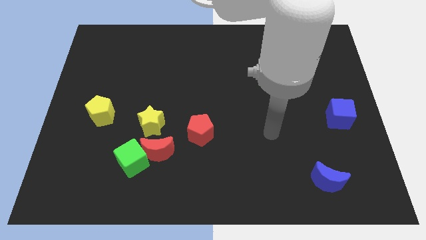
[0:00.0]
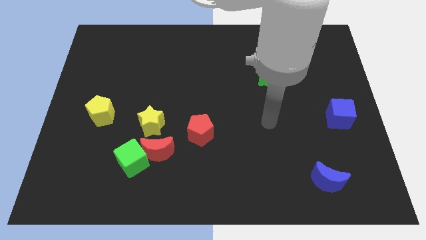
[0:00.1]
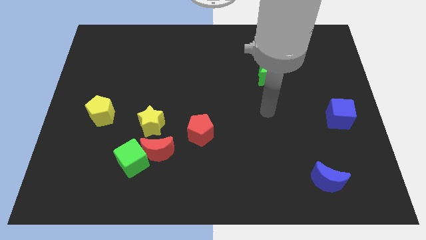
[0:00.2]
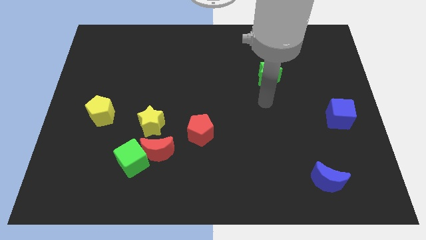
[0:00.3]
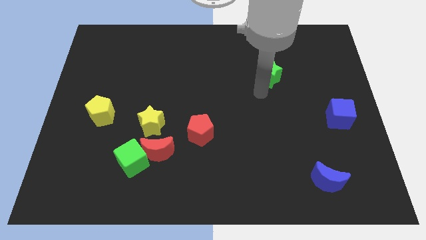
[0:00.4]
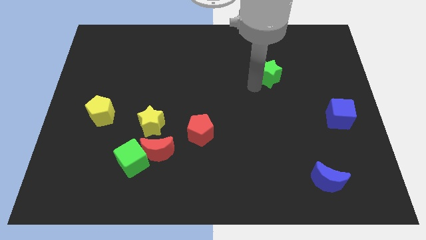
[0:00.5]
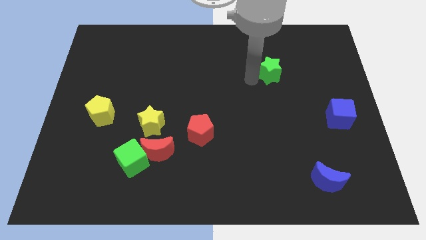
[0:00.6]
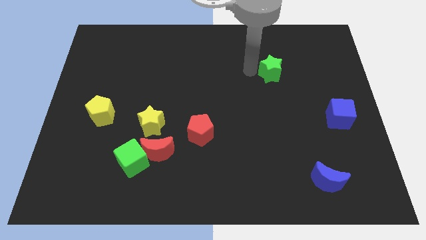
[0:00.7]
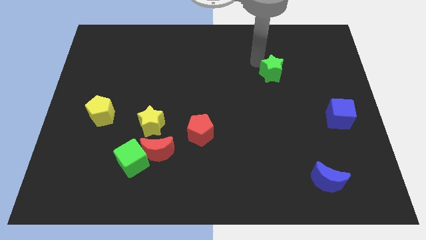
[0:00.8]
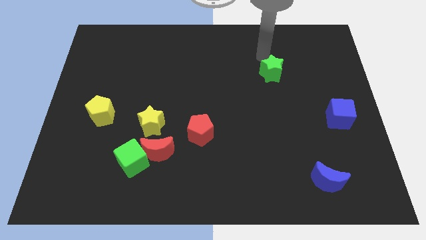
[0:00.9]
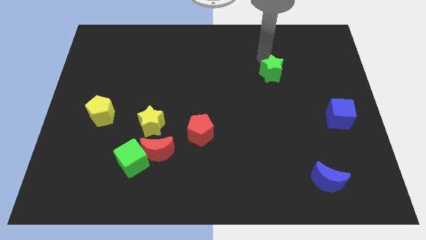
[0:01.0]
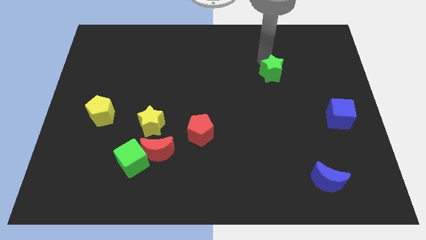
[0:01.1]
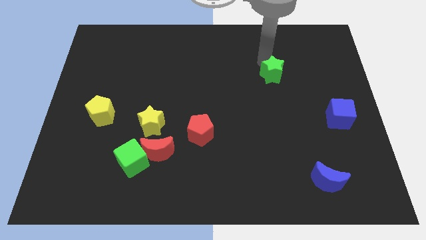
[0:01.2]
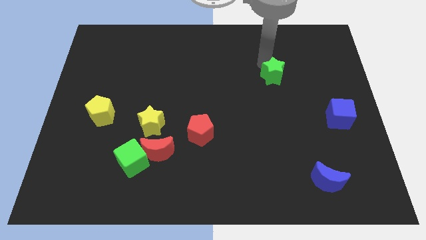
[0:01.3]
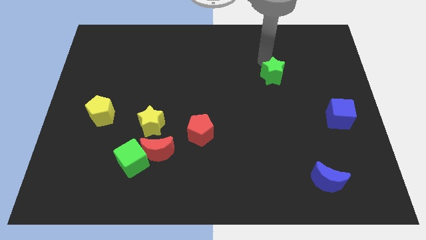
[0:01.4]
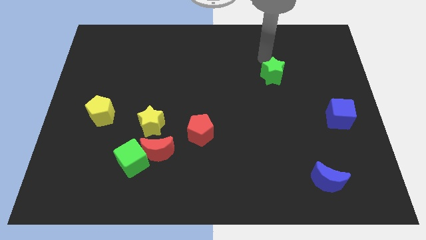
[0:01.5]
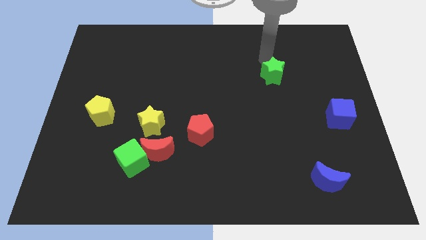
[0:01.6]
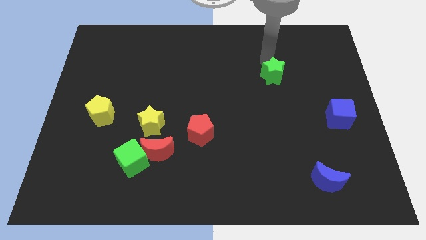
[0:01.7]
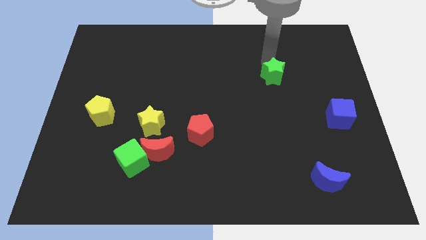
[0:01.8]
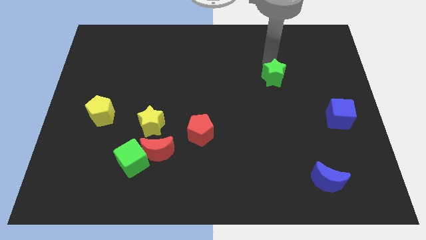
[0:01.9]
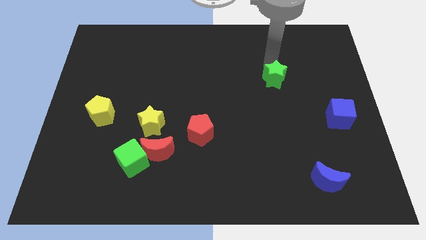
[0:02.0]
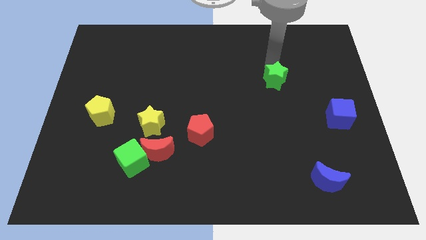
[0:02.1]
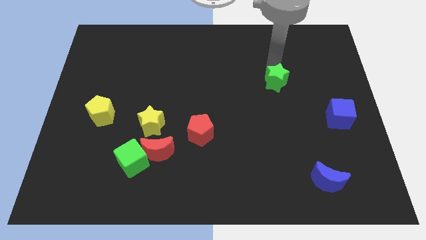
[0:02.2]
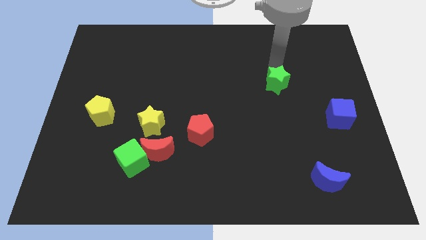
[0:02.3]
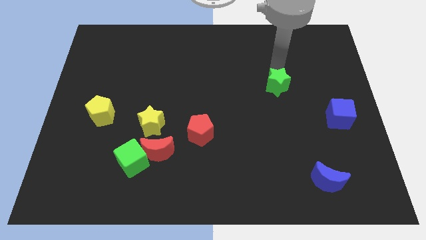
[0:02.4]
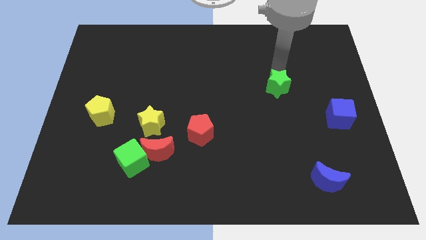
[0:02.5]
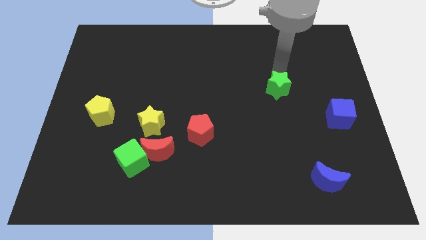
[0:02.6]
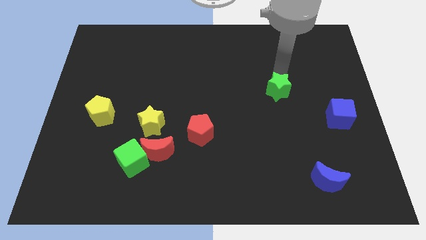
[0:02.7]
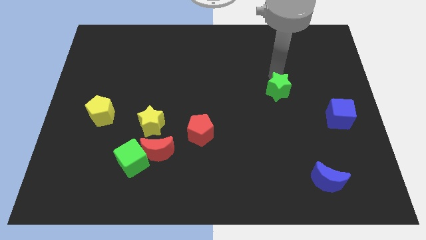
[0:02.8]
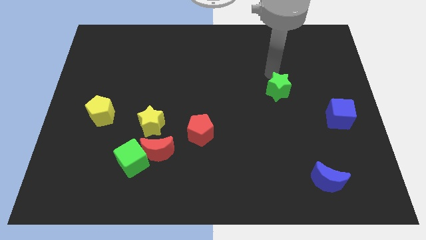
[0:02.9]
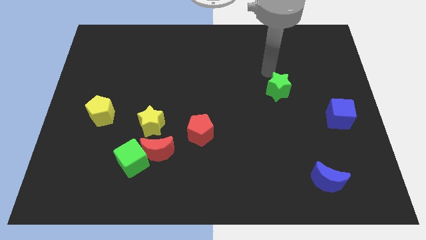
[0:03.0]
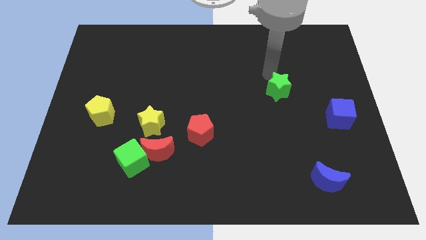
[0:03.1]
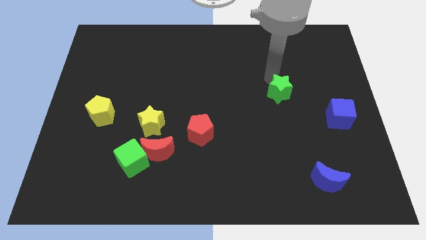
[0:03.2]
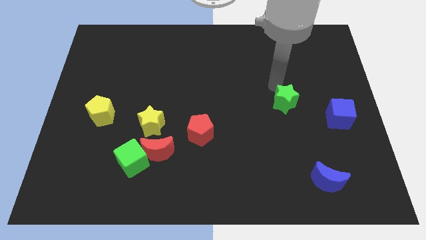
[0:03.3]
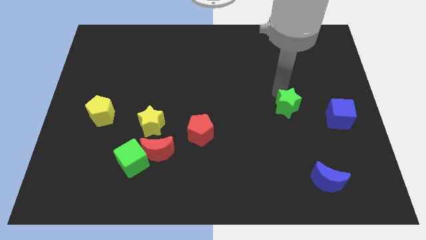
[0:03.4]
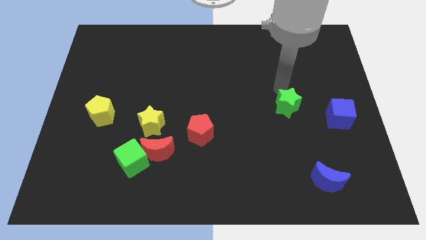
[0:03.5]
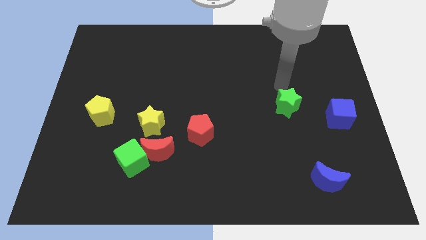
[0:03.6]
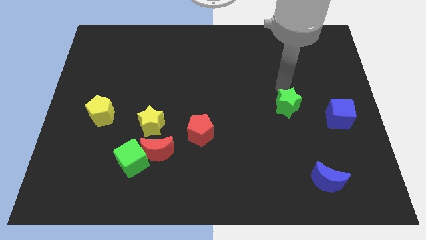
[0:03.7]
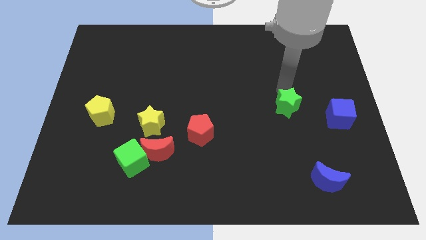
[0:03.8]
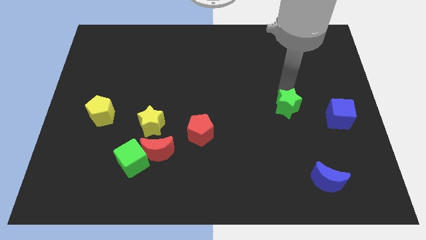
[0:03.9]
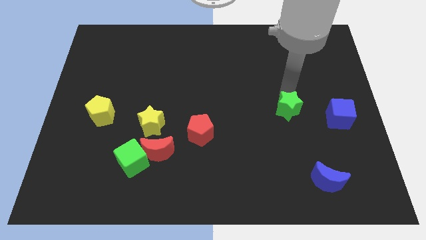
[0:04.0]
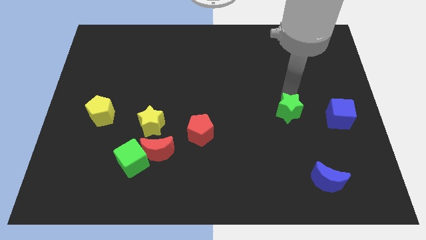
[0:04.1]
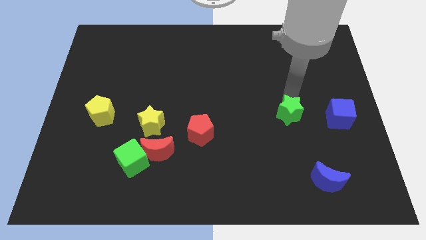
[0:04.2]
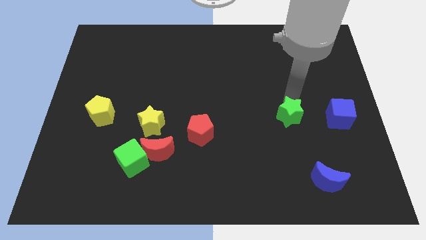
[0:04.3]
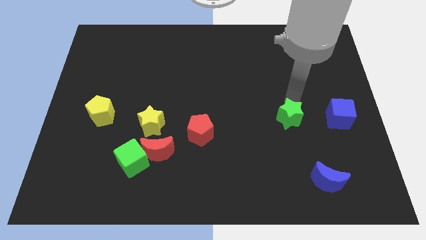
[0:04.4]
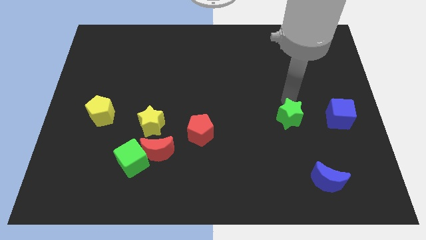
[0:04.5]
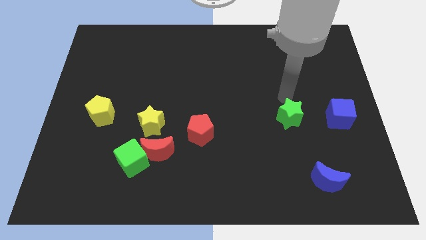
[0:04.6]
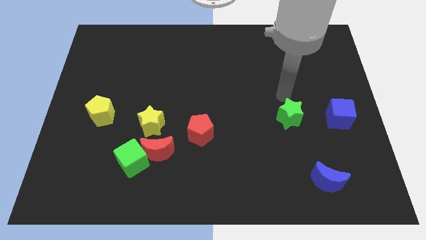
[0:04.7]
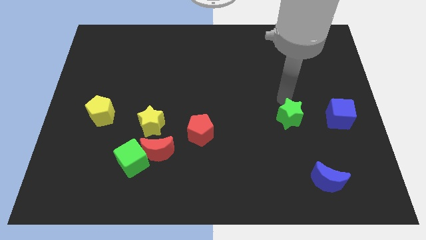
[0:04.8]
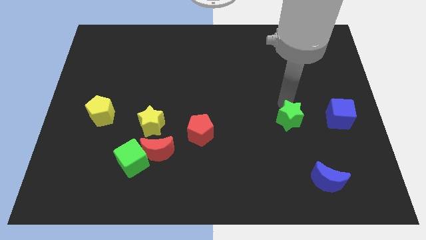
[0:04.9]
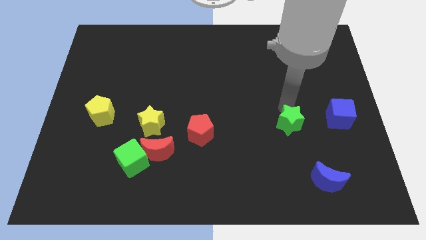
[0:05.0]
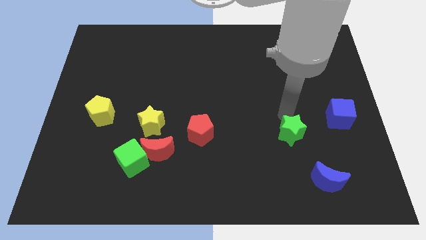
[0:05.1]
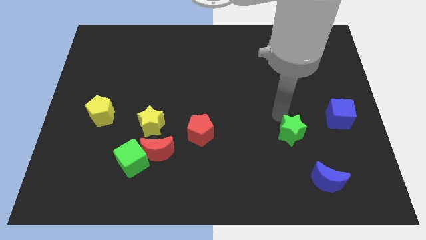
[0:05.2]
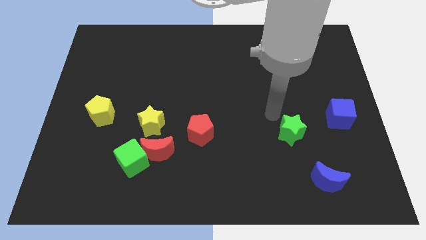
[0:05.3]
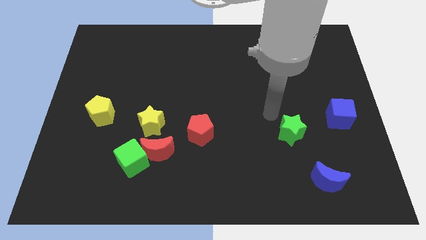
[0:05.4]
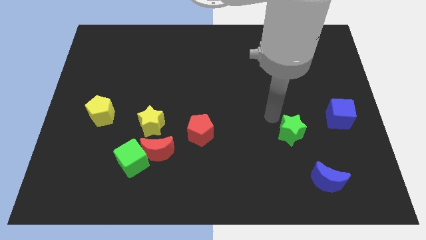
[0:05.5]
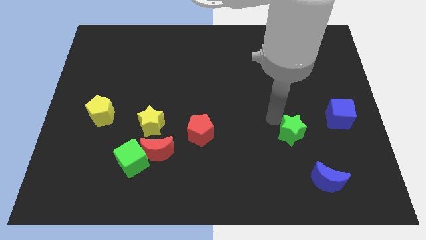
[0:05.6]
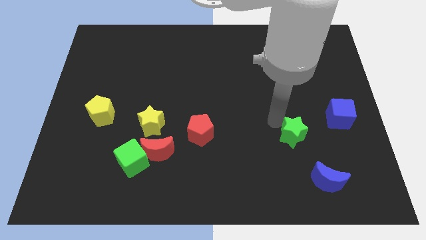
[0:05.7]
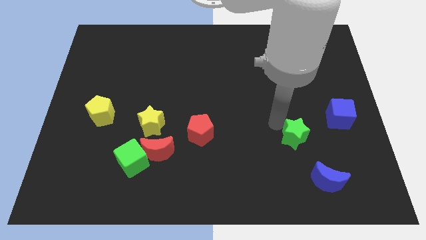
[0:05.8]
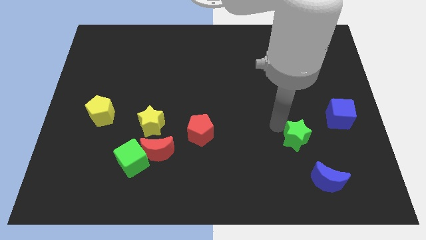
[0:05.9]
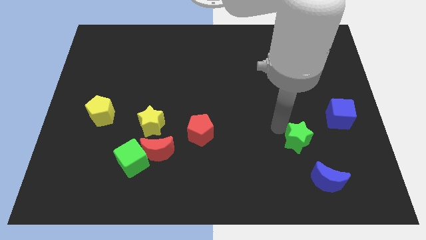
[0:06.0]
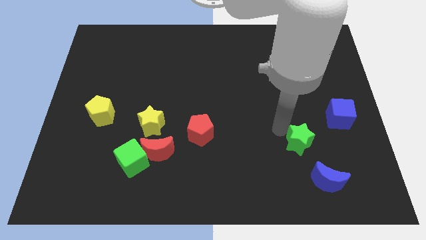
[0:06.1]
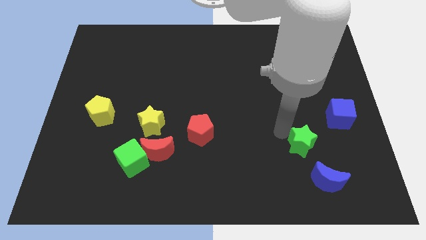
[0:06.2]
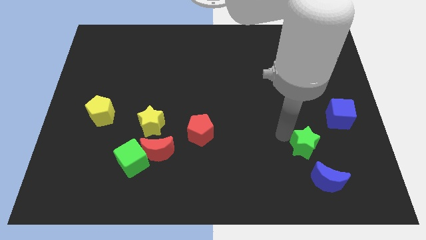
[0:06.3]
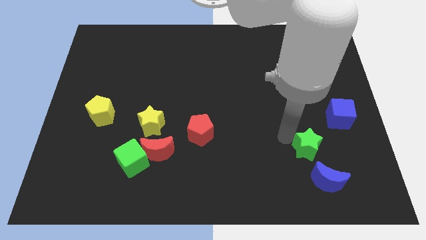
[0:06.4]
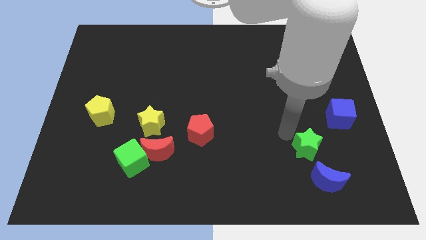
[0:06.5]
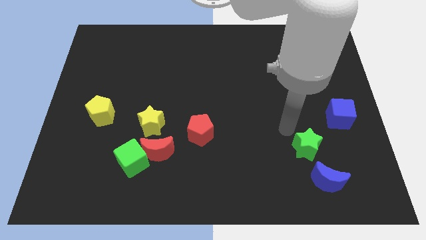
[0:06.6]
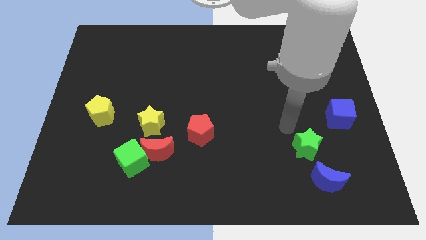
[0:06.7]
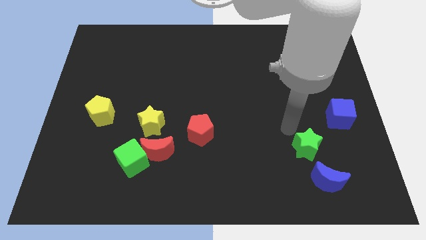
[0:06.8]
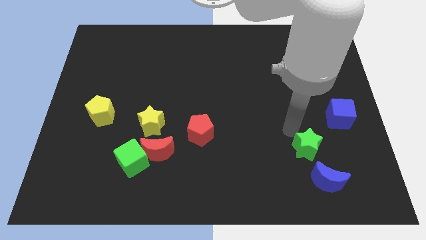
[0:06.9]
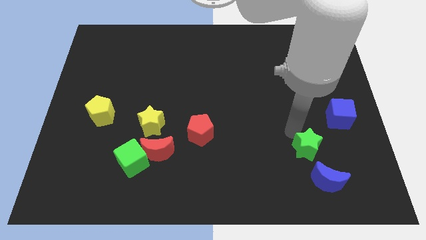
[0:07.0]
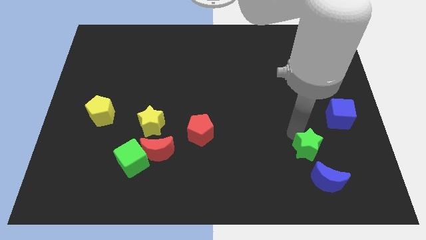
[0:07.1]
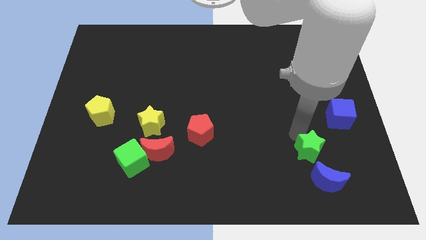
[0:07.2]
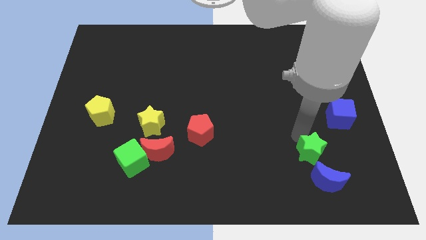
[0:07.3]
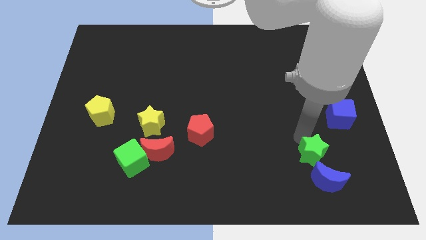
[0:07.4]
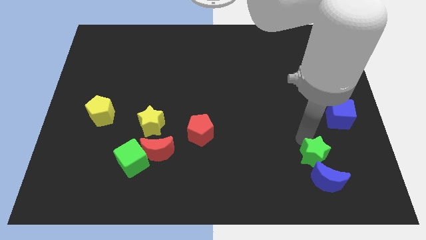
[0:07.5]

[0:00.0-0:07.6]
slide the green star close to the blue moon
